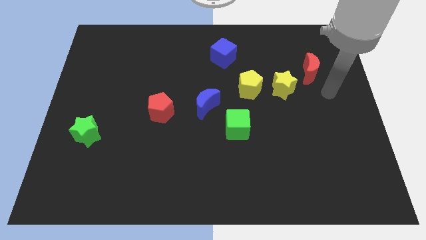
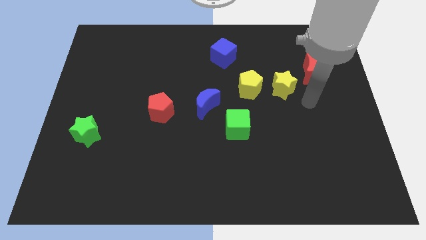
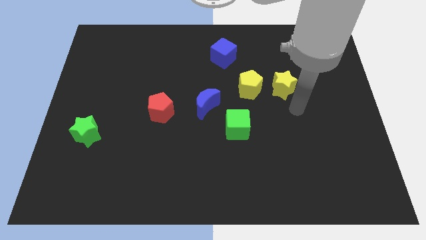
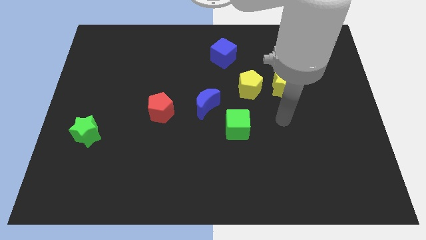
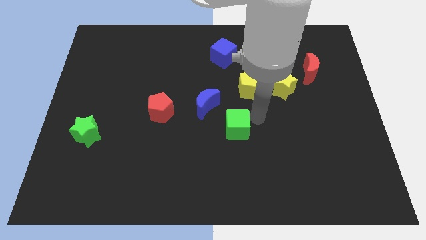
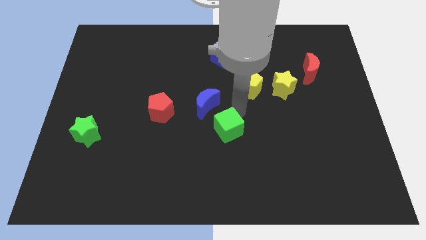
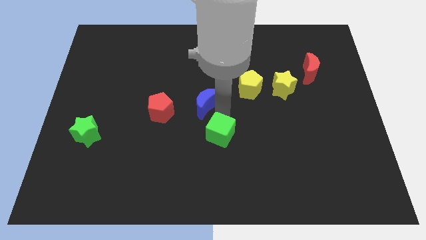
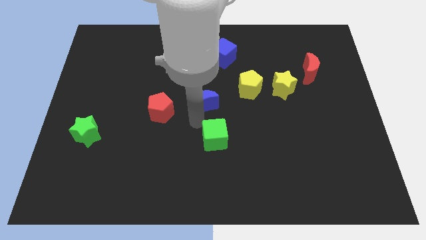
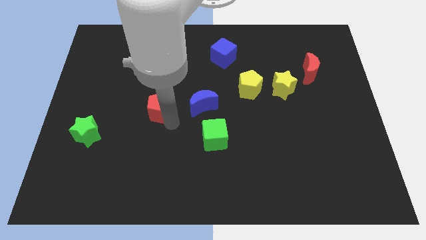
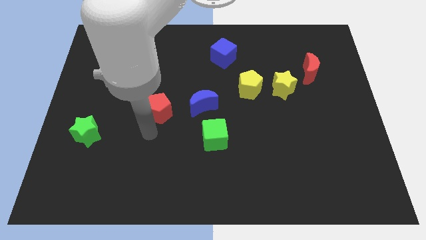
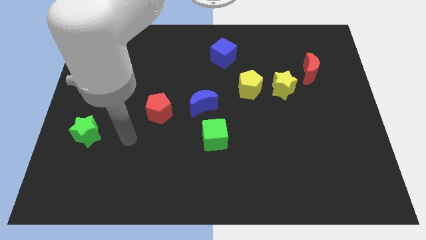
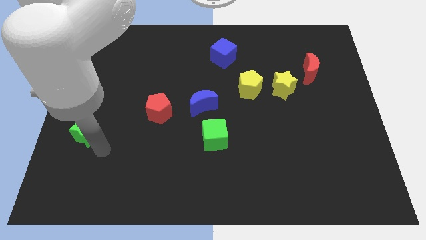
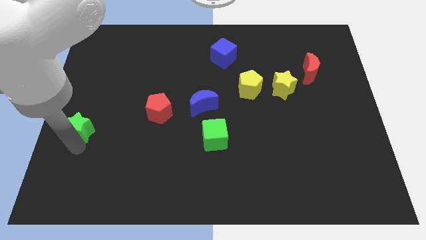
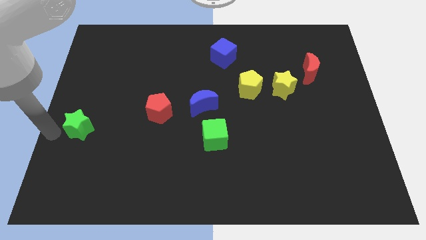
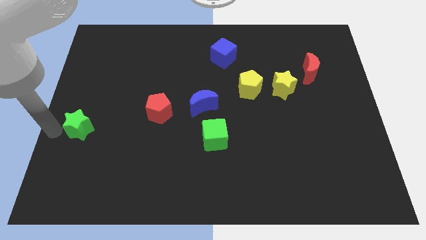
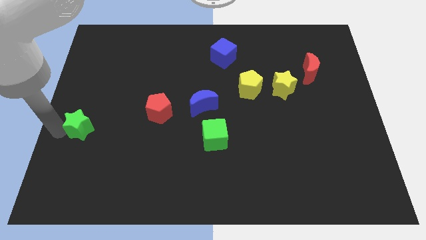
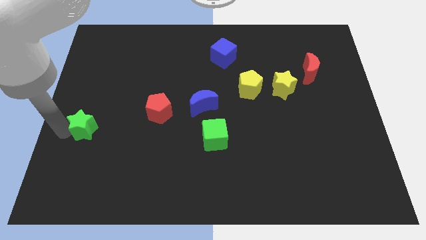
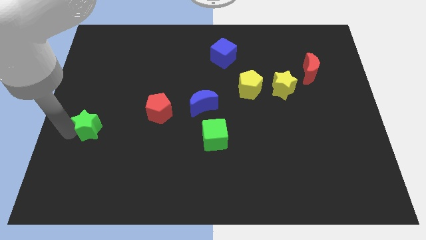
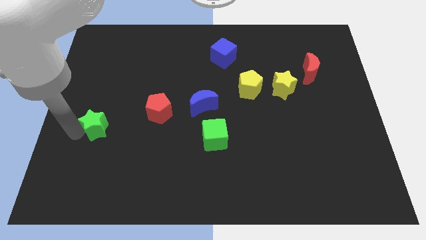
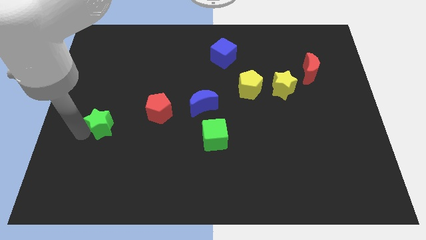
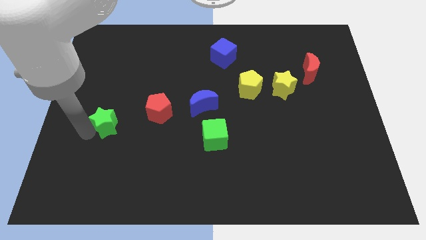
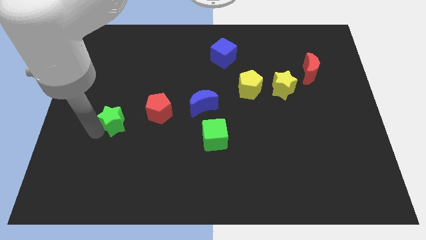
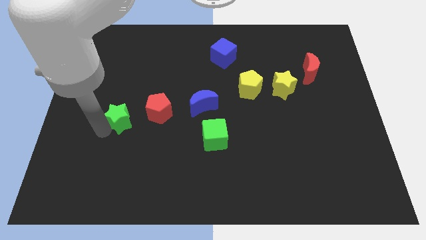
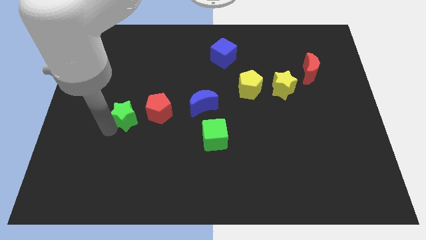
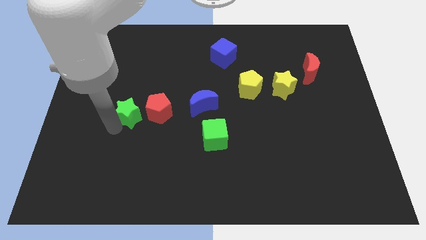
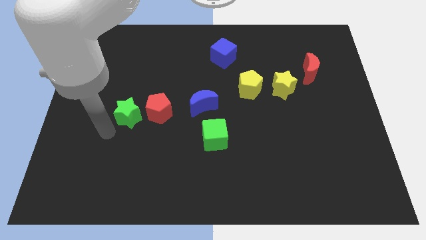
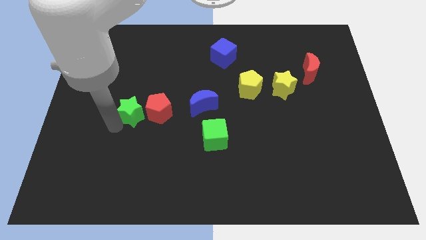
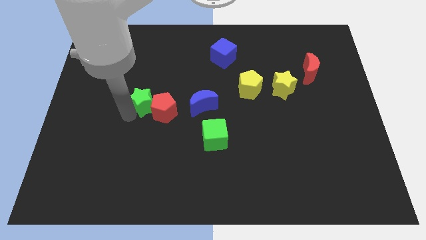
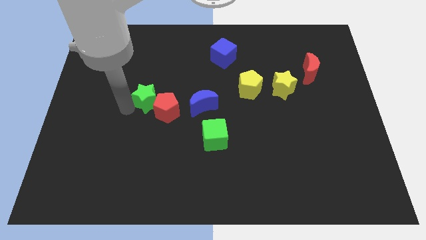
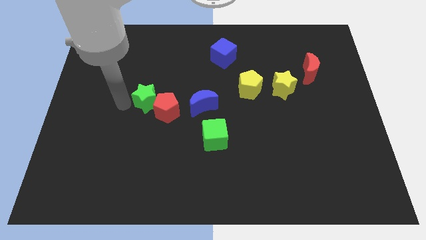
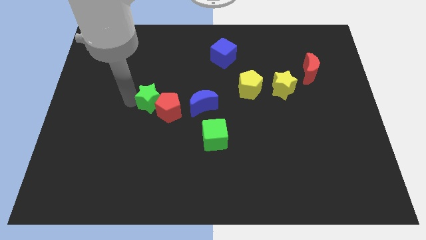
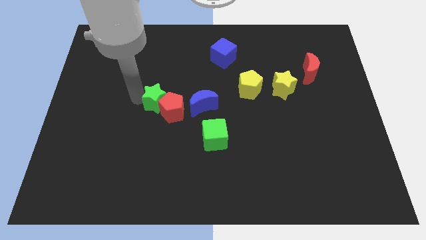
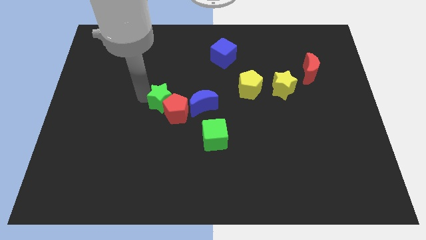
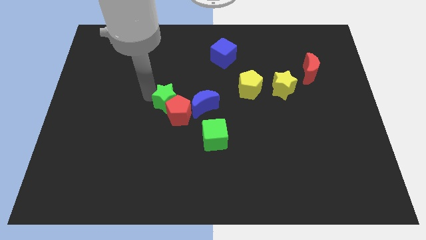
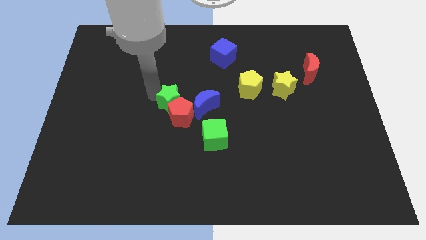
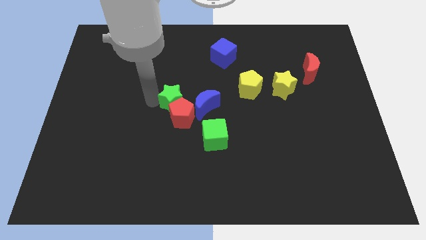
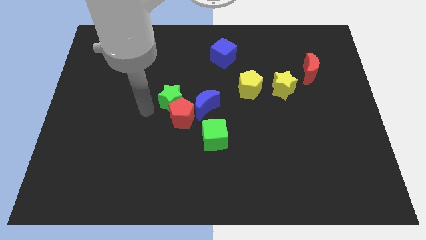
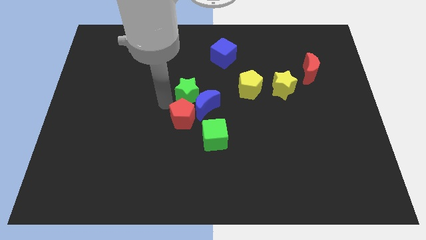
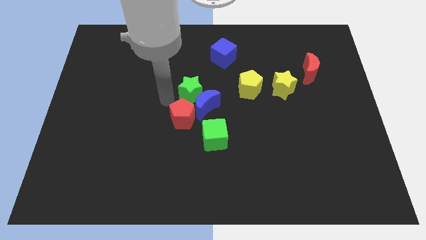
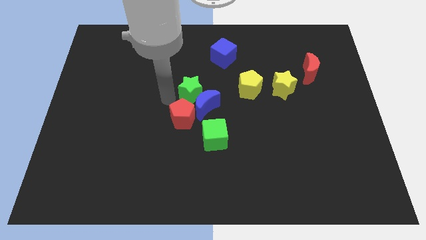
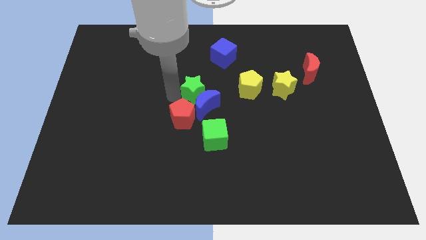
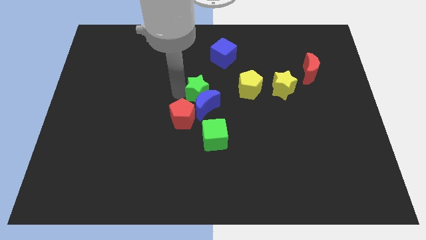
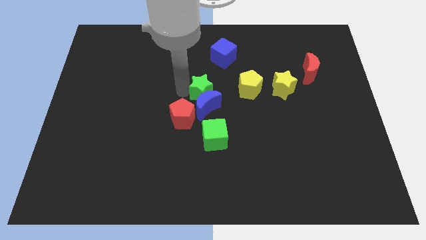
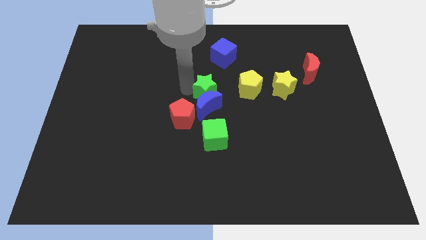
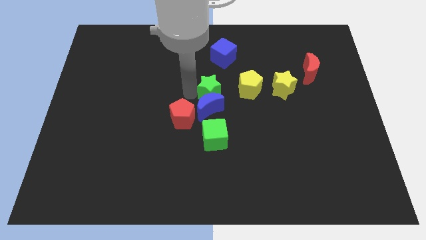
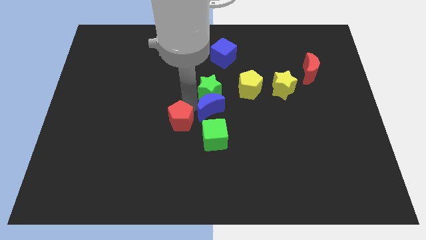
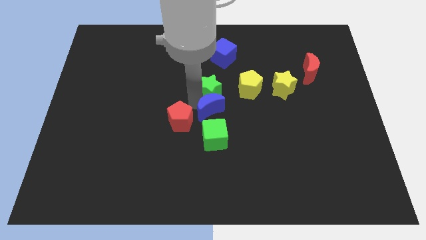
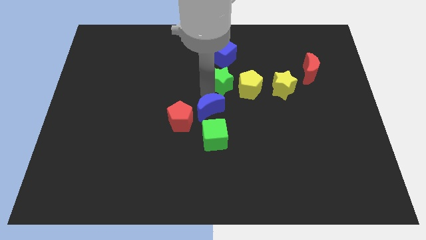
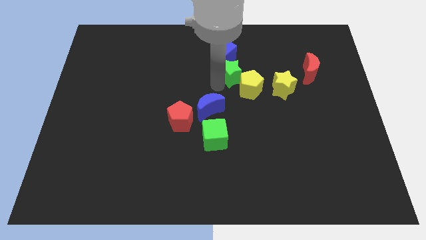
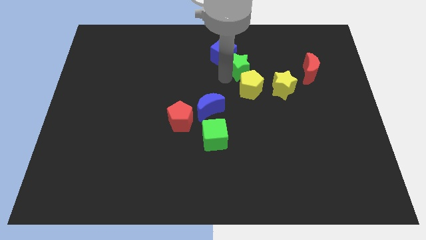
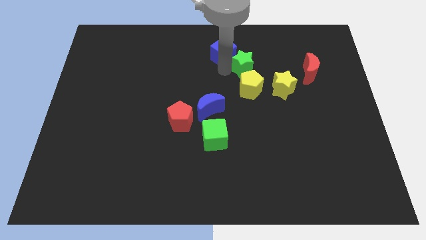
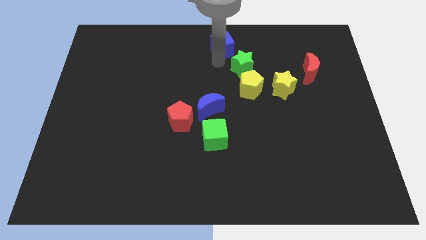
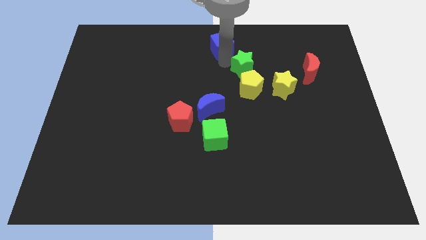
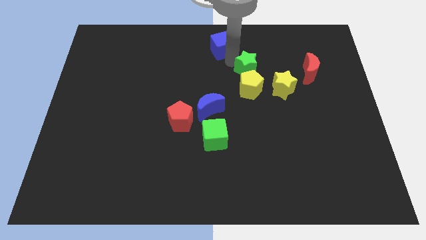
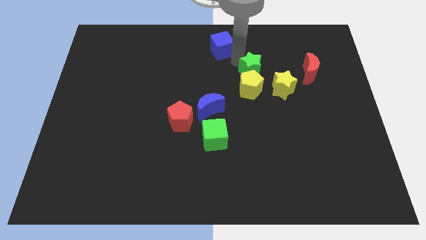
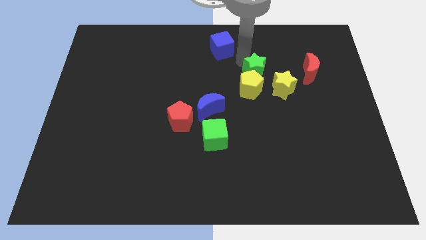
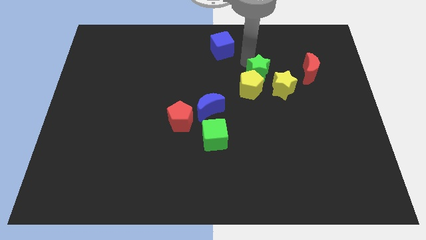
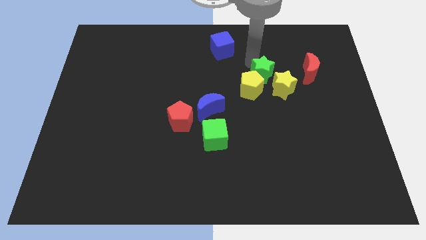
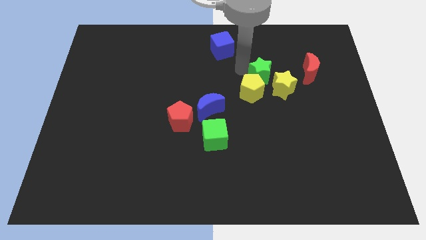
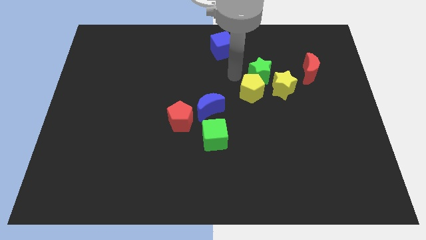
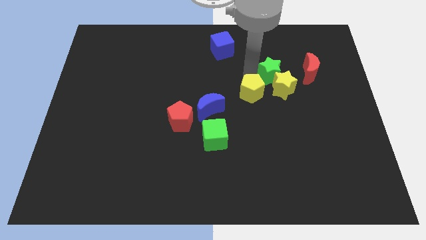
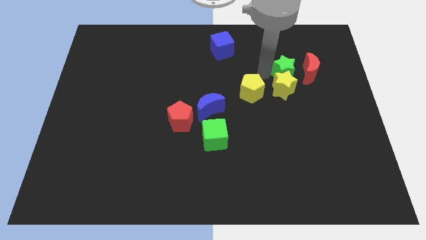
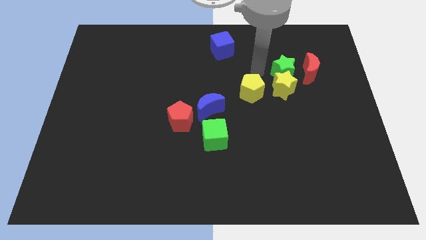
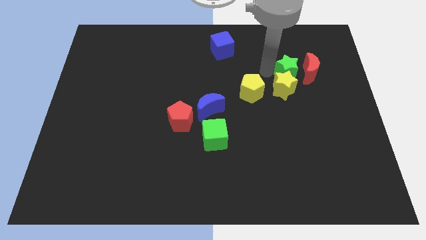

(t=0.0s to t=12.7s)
move the green star next to the red moon

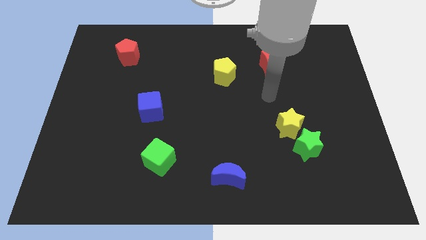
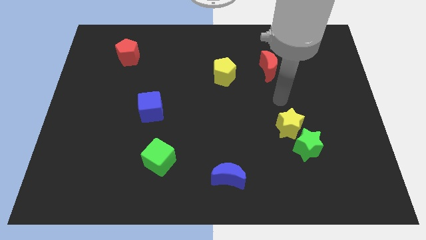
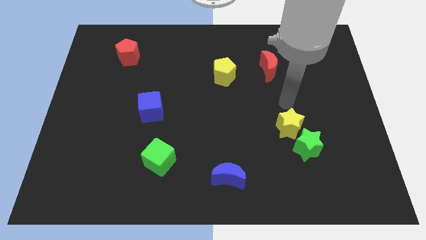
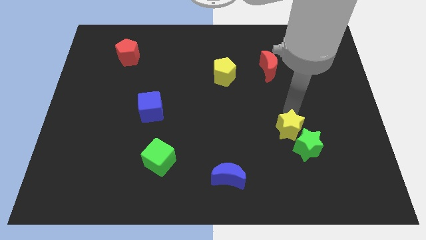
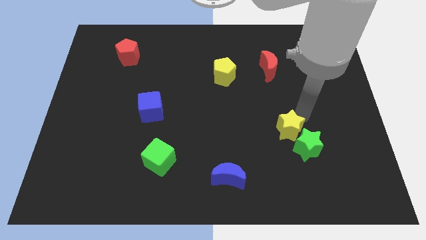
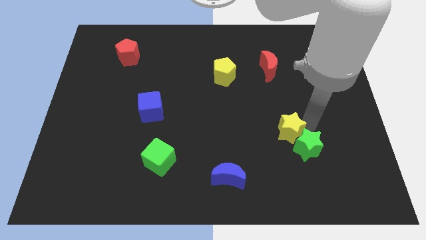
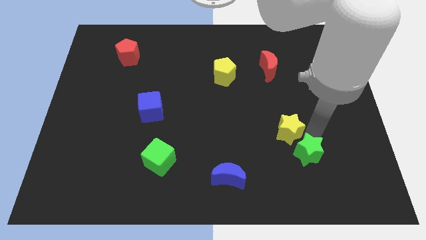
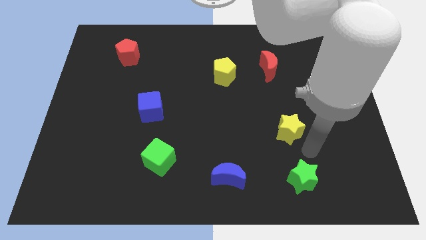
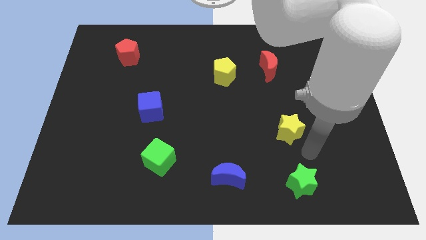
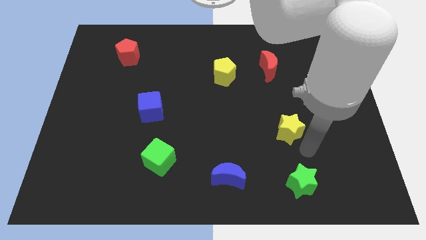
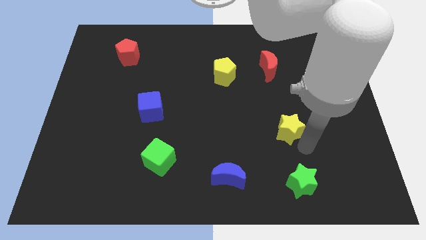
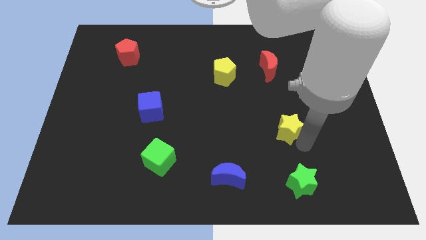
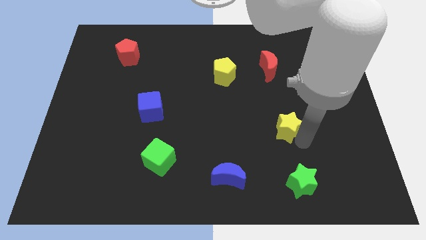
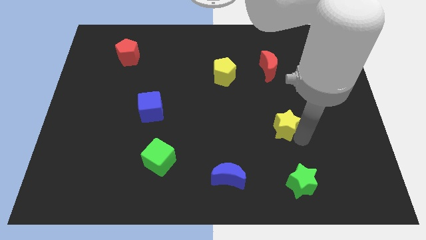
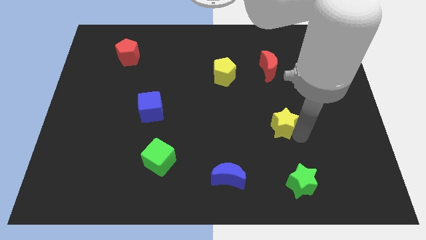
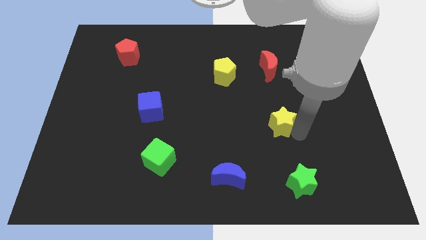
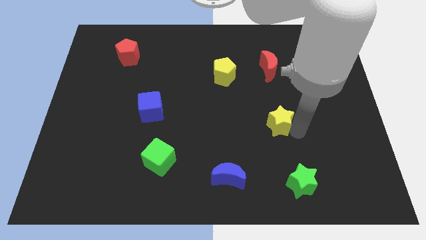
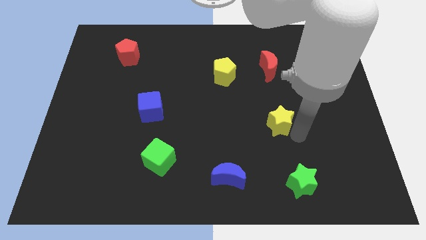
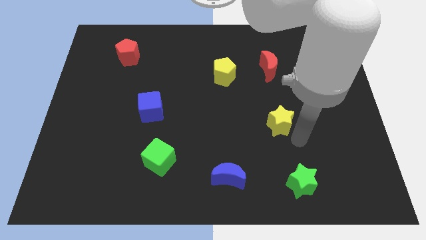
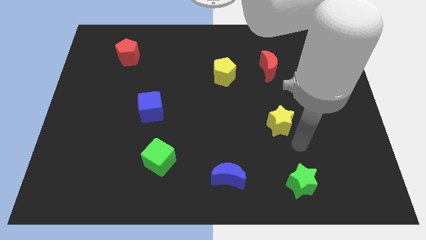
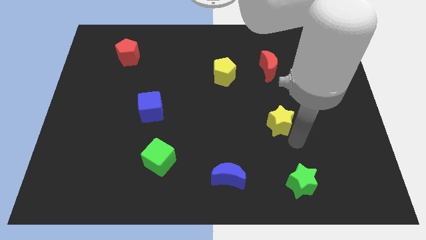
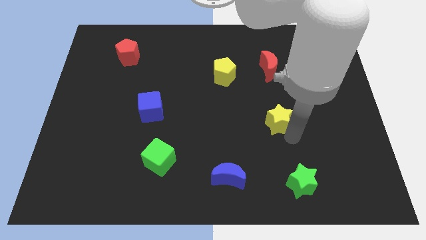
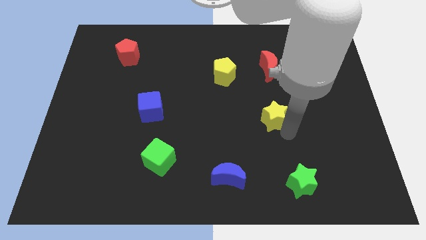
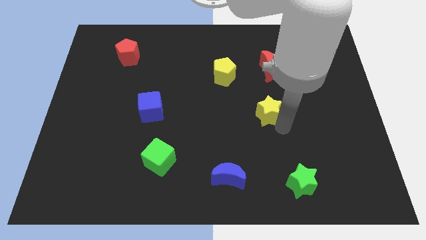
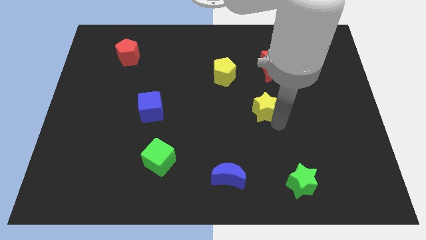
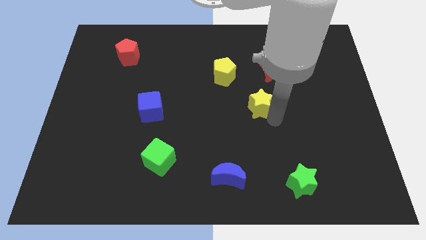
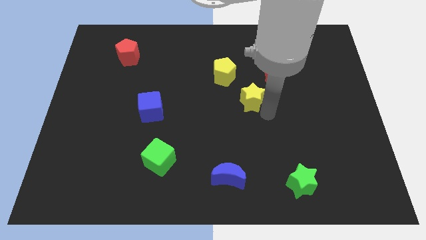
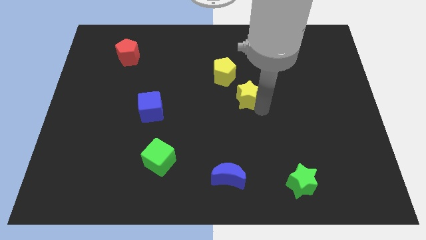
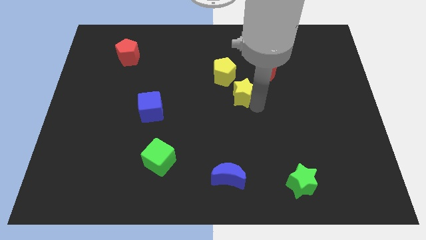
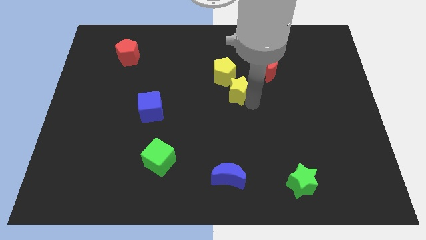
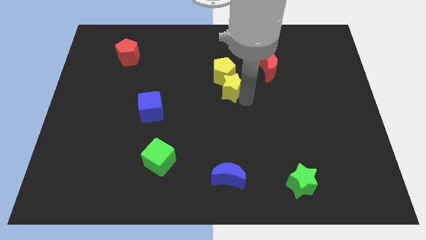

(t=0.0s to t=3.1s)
put the yellow star close to the yellow pentagon
